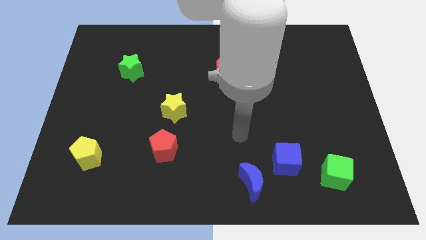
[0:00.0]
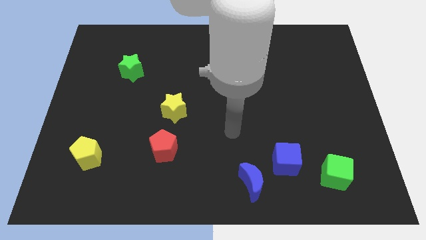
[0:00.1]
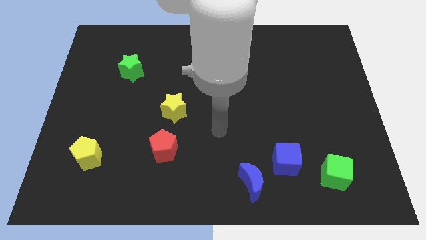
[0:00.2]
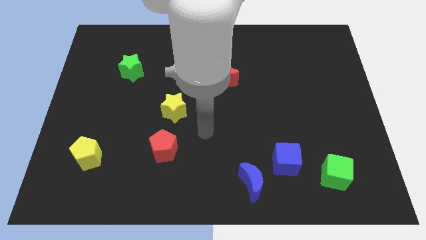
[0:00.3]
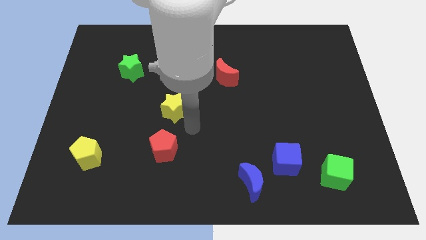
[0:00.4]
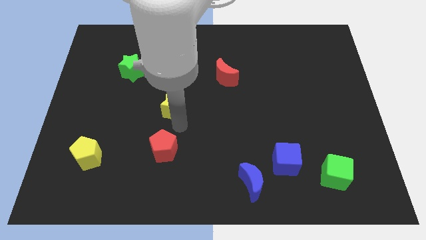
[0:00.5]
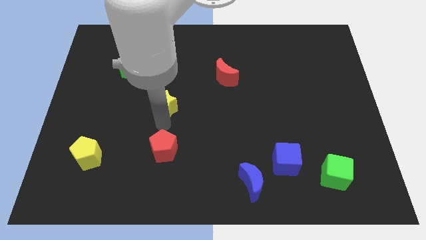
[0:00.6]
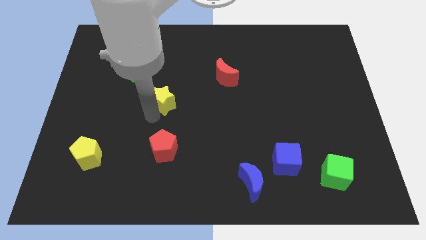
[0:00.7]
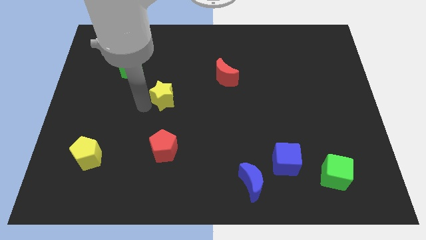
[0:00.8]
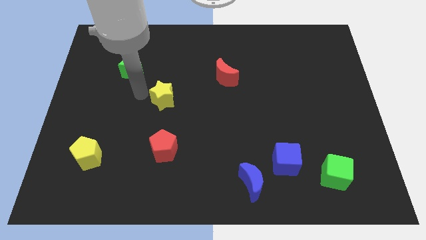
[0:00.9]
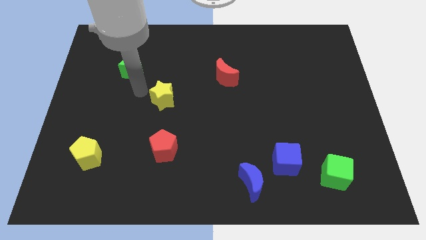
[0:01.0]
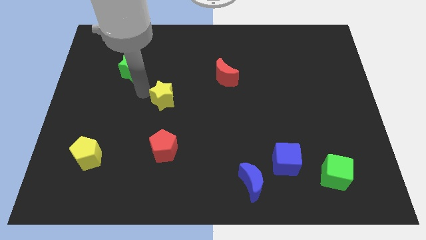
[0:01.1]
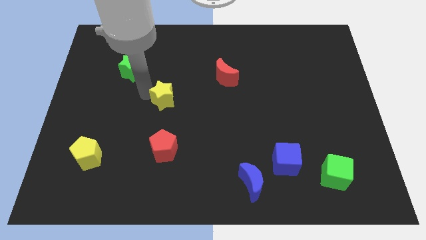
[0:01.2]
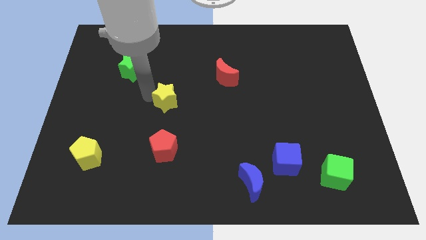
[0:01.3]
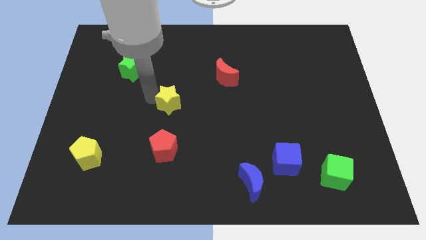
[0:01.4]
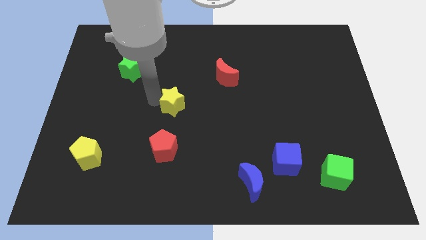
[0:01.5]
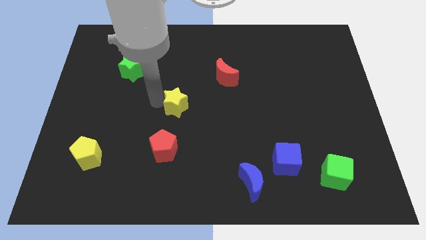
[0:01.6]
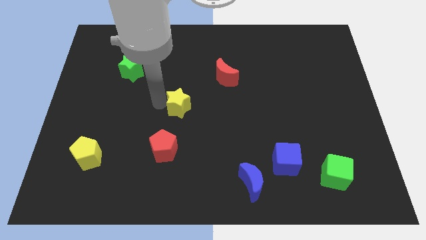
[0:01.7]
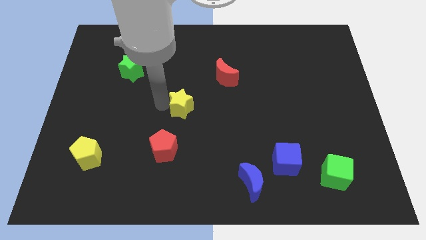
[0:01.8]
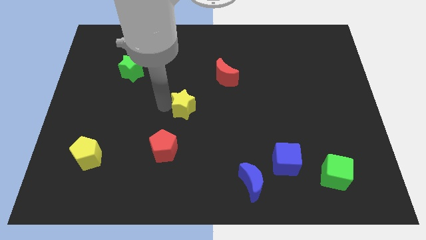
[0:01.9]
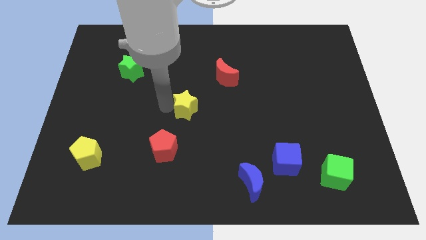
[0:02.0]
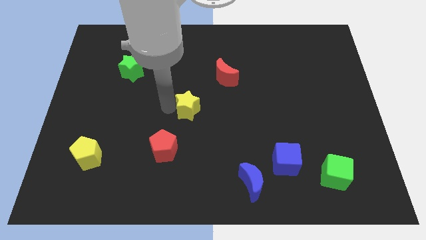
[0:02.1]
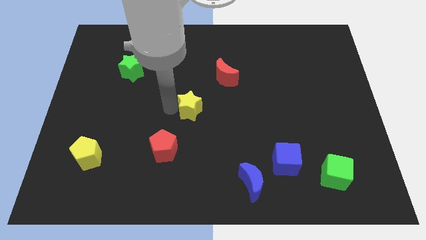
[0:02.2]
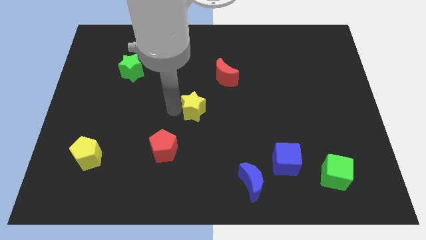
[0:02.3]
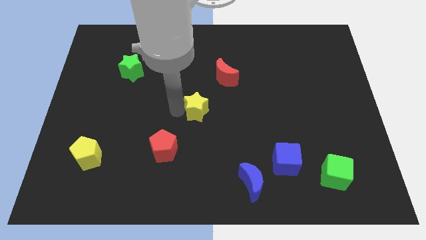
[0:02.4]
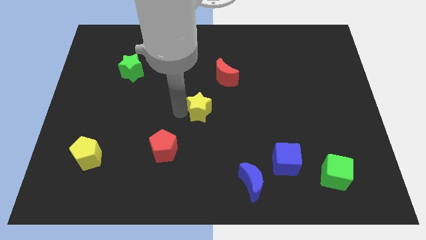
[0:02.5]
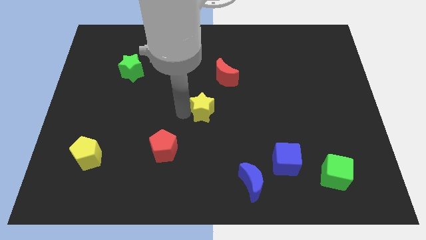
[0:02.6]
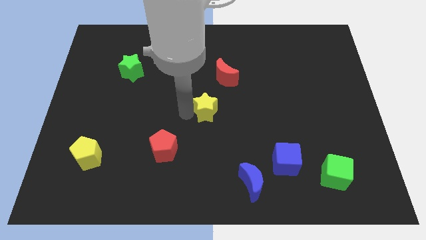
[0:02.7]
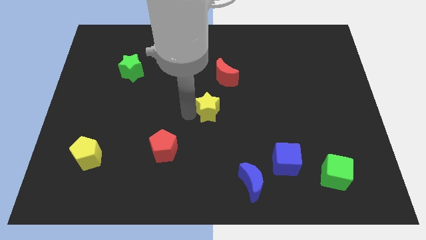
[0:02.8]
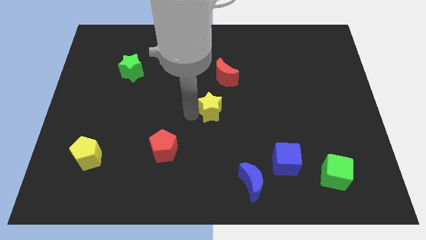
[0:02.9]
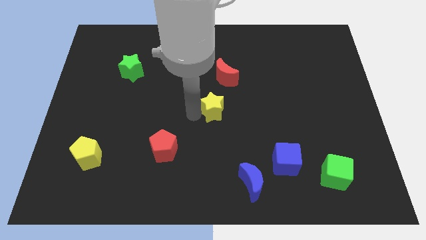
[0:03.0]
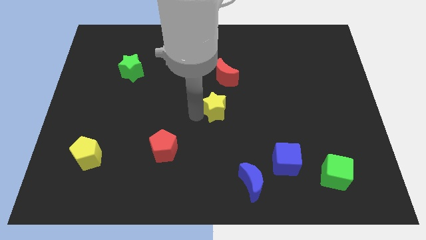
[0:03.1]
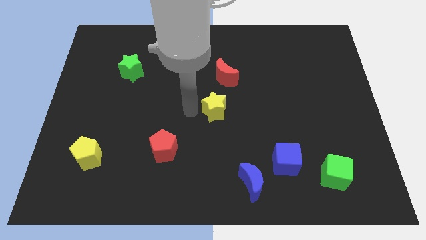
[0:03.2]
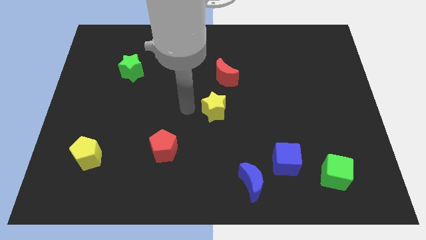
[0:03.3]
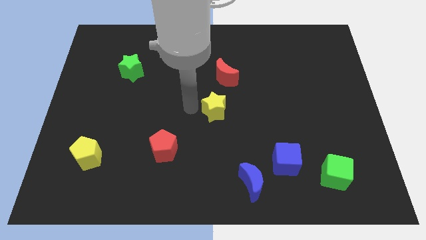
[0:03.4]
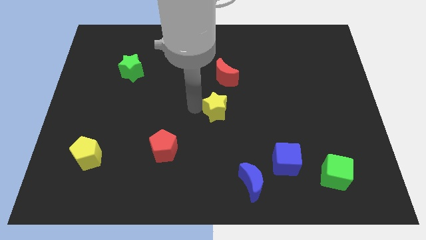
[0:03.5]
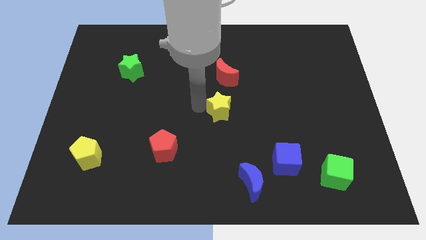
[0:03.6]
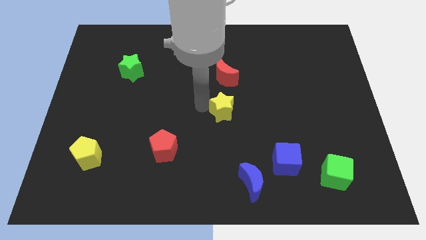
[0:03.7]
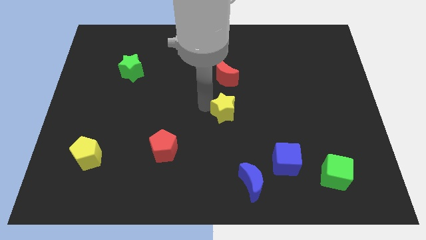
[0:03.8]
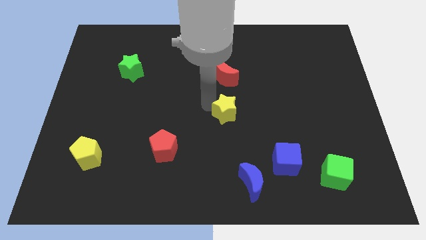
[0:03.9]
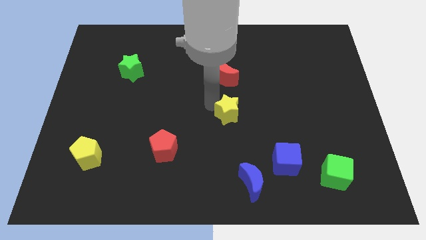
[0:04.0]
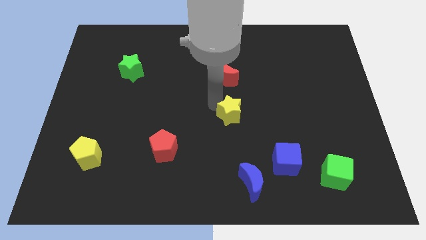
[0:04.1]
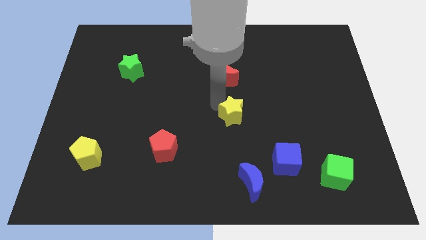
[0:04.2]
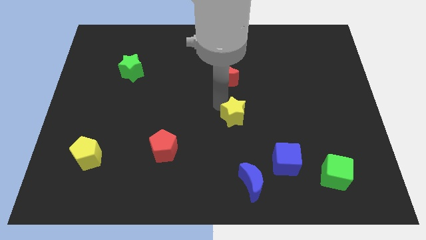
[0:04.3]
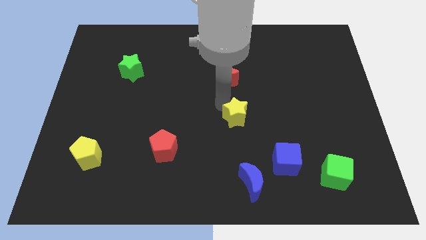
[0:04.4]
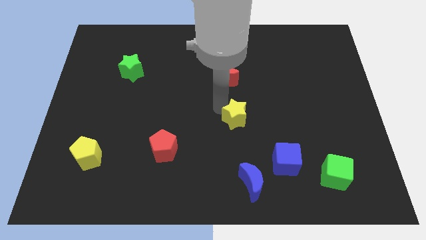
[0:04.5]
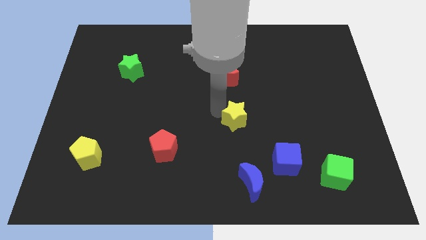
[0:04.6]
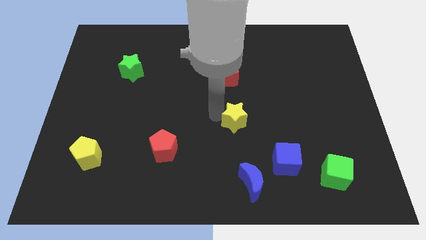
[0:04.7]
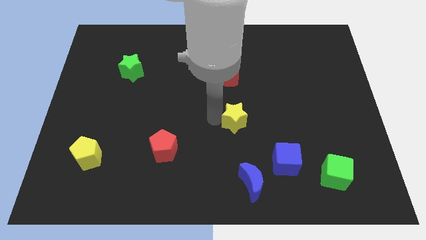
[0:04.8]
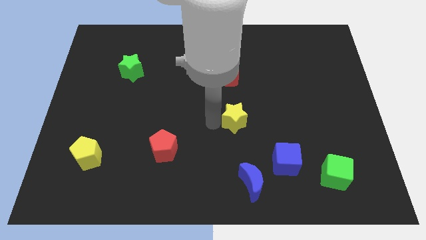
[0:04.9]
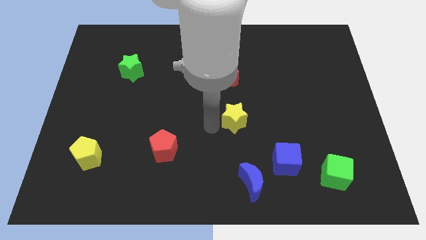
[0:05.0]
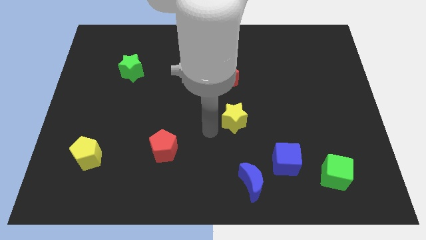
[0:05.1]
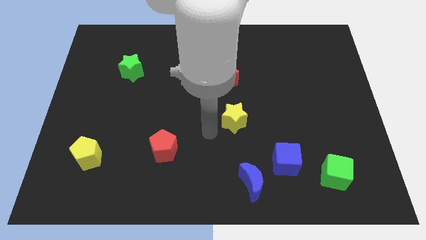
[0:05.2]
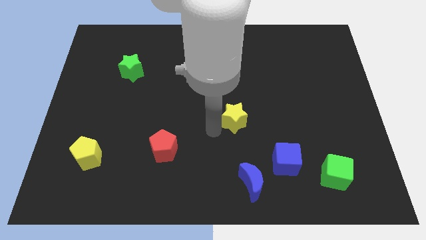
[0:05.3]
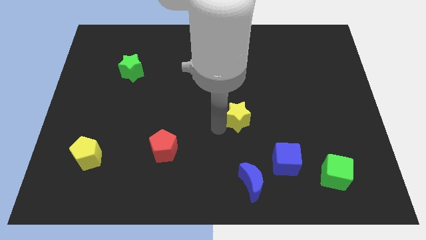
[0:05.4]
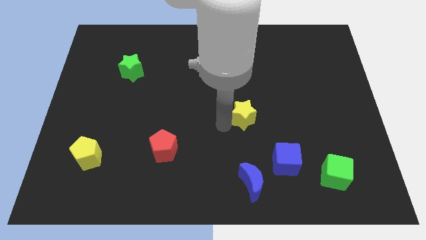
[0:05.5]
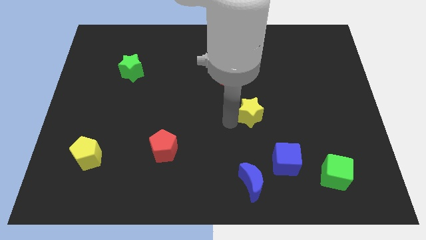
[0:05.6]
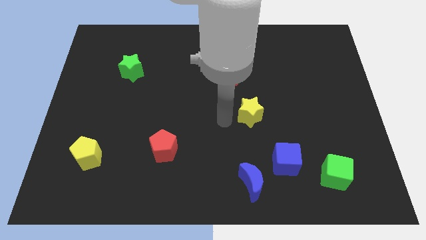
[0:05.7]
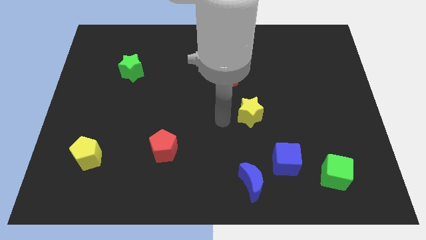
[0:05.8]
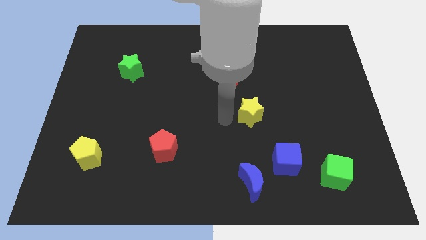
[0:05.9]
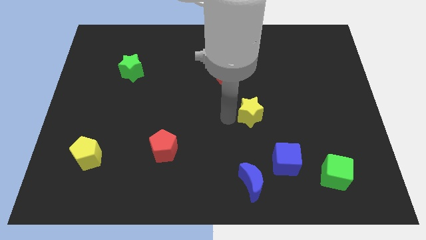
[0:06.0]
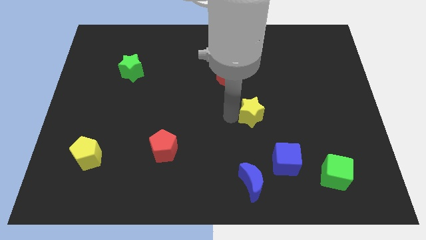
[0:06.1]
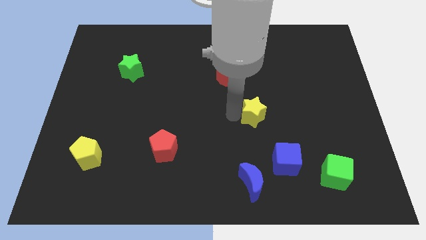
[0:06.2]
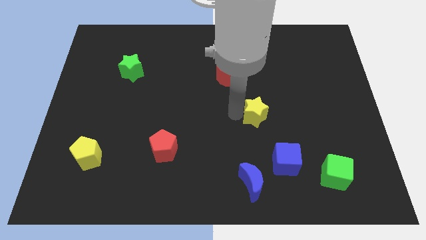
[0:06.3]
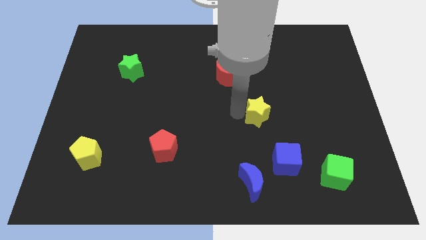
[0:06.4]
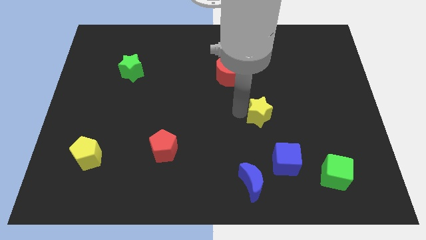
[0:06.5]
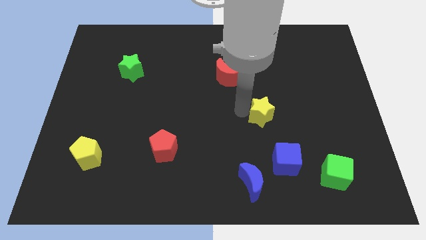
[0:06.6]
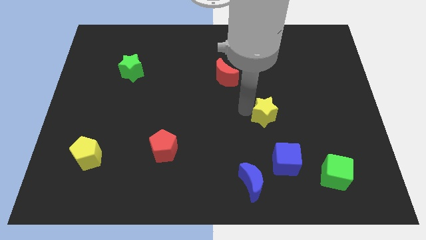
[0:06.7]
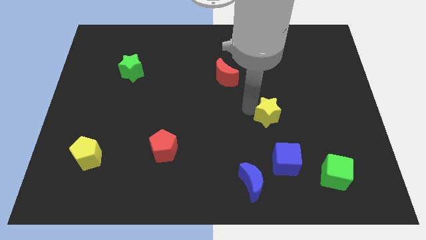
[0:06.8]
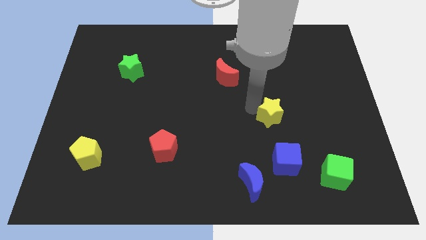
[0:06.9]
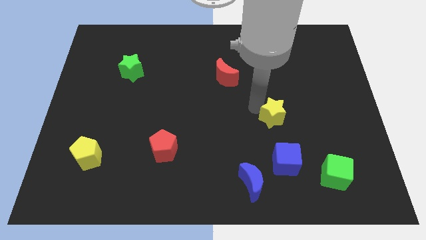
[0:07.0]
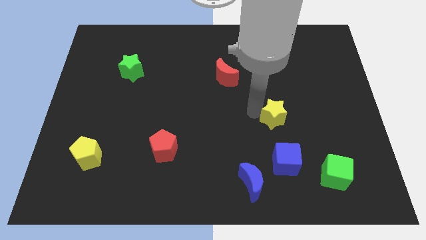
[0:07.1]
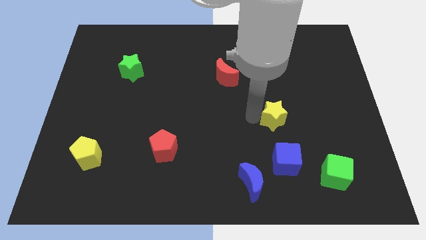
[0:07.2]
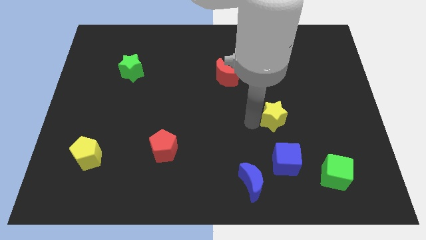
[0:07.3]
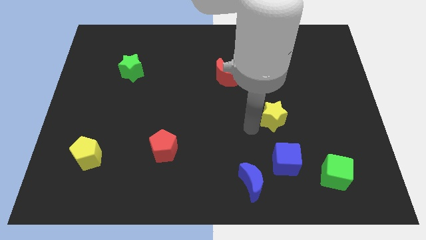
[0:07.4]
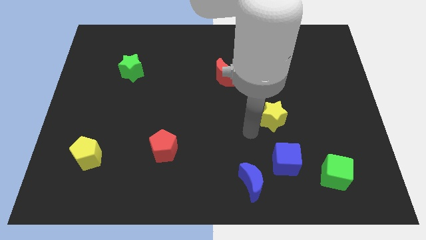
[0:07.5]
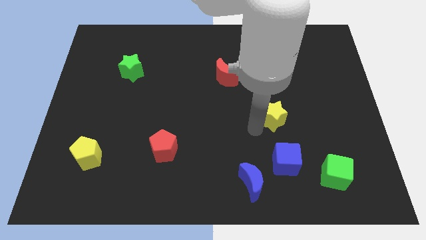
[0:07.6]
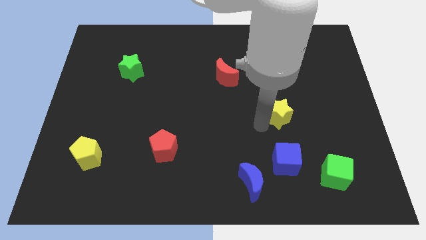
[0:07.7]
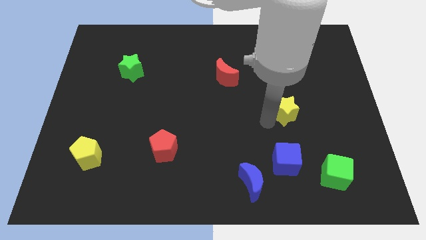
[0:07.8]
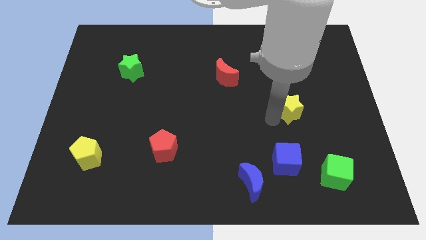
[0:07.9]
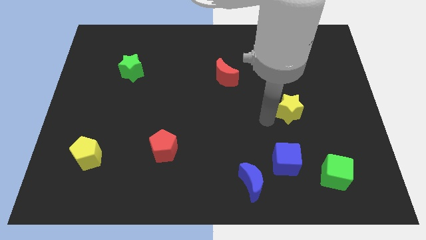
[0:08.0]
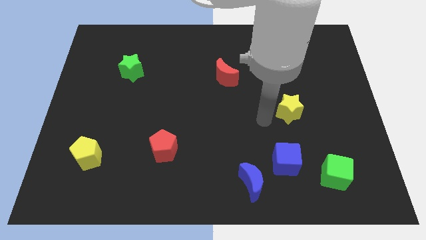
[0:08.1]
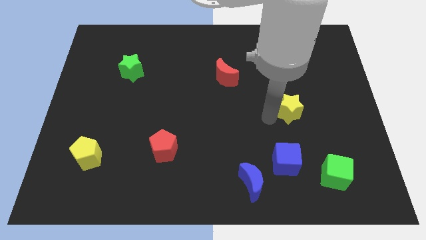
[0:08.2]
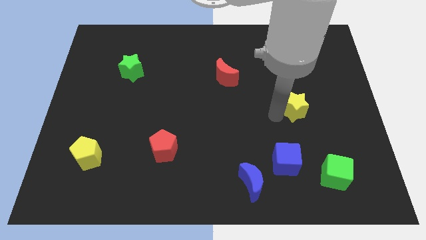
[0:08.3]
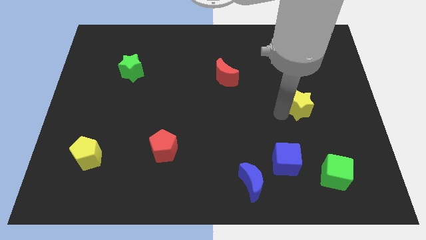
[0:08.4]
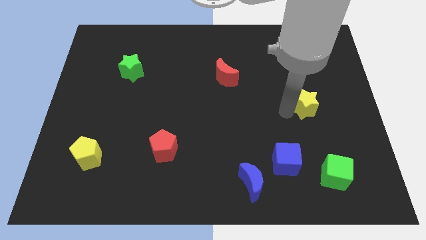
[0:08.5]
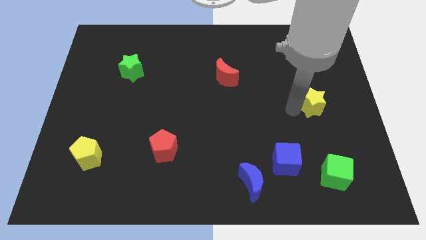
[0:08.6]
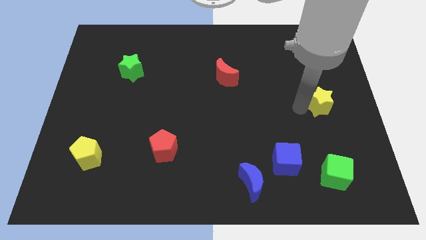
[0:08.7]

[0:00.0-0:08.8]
move the yellow star to the center right
